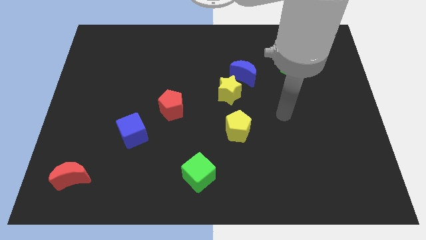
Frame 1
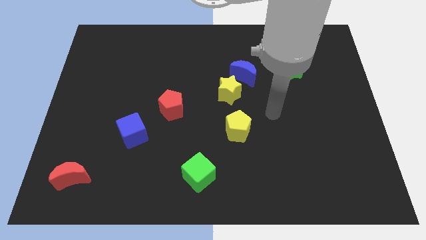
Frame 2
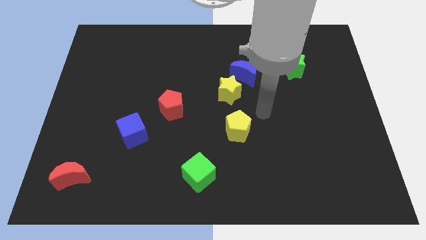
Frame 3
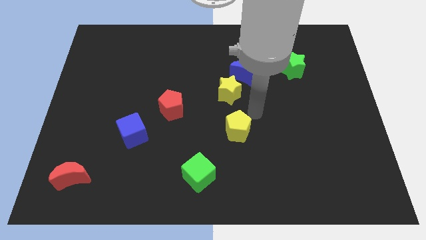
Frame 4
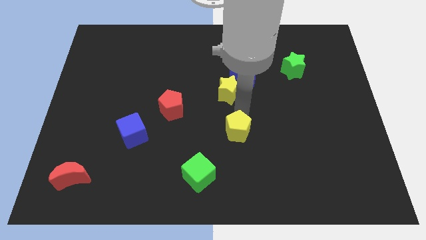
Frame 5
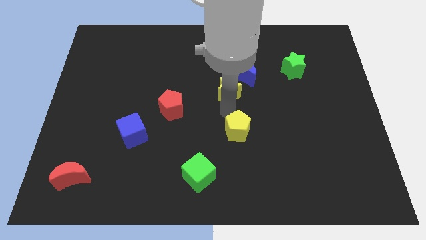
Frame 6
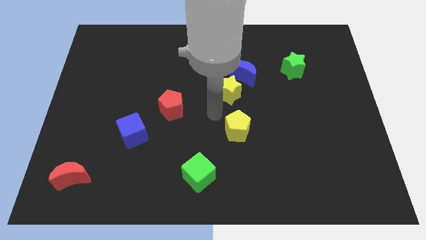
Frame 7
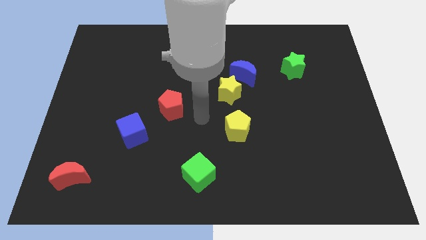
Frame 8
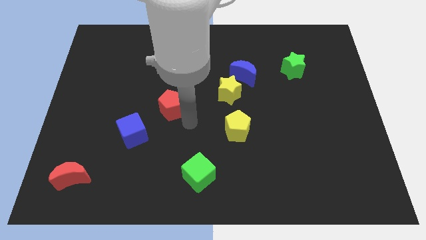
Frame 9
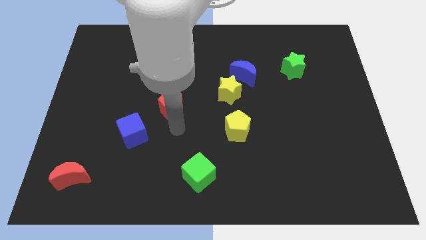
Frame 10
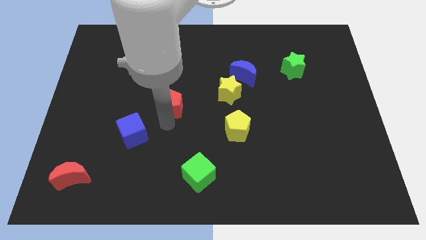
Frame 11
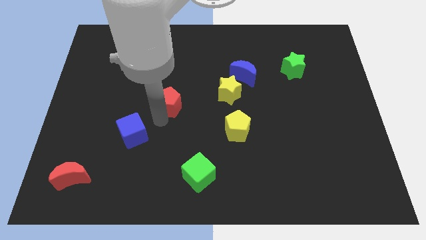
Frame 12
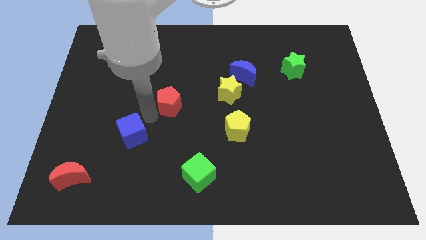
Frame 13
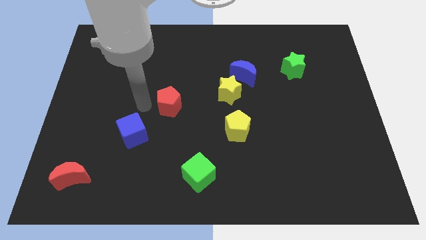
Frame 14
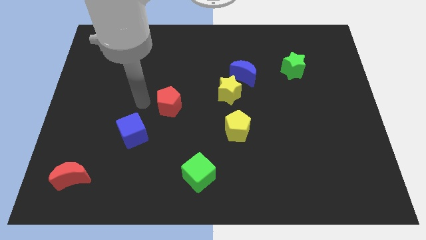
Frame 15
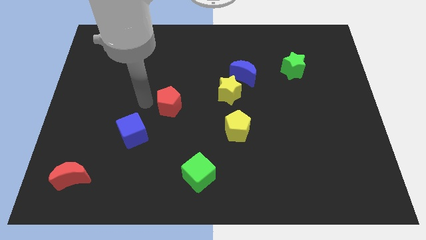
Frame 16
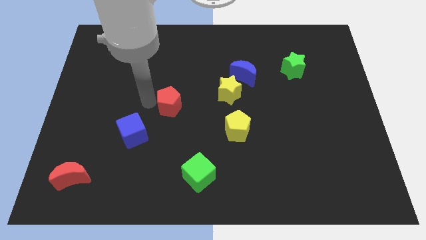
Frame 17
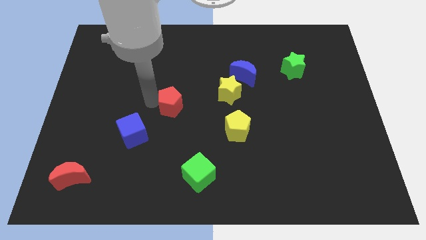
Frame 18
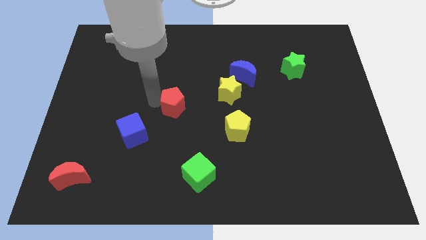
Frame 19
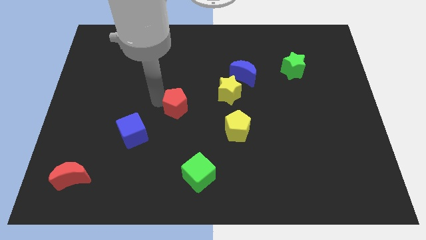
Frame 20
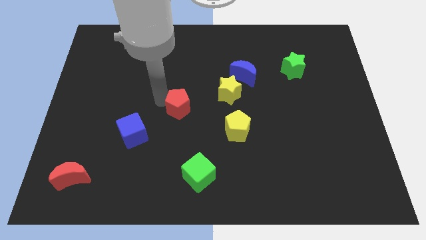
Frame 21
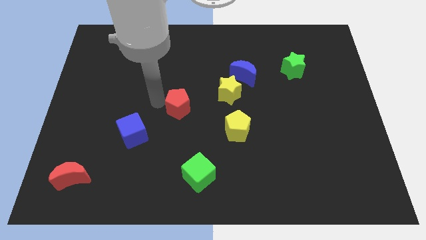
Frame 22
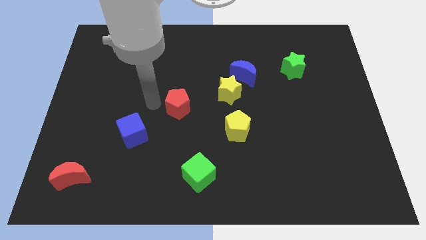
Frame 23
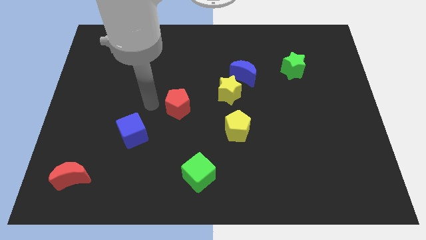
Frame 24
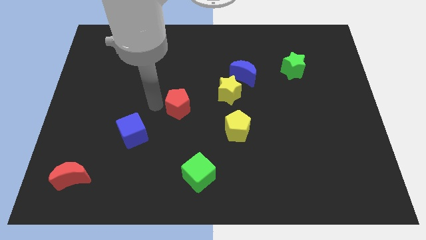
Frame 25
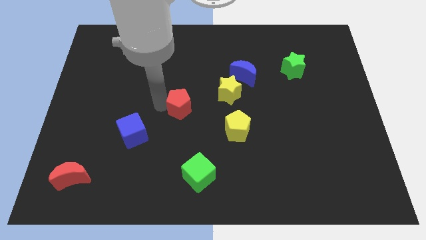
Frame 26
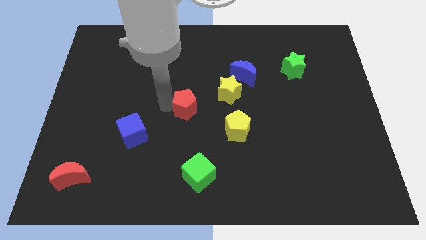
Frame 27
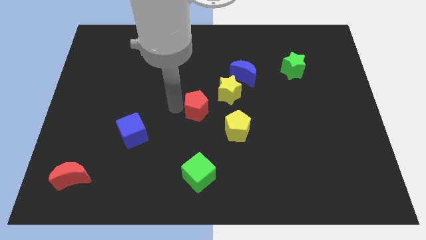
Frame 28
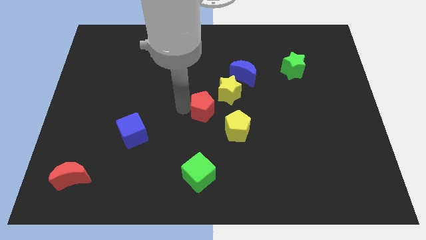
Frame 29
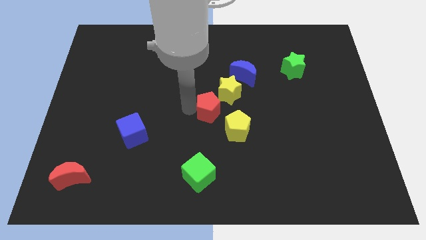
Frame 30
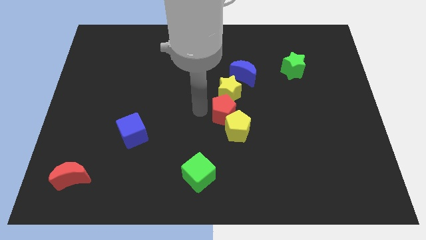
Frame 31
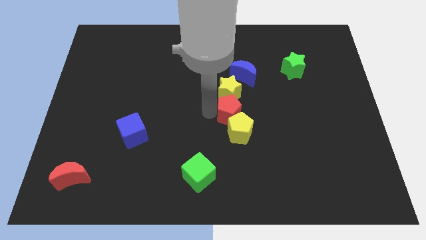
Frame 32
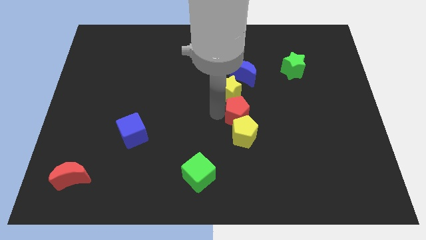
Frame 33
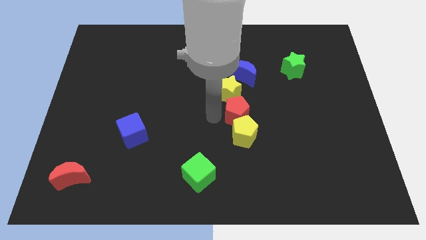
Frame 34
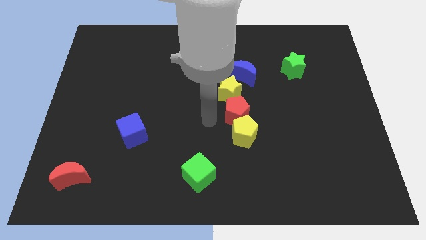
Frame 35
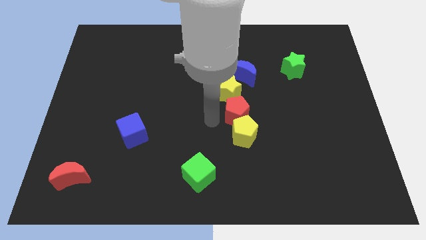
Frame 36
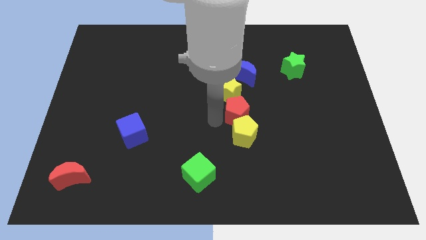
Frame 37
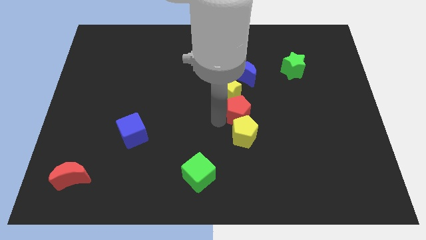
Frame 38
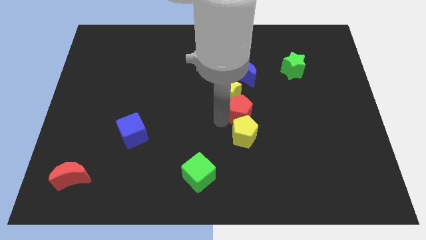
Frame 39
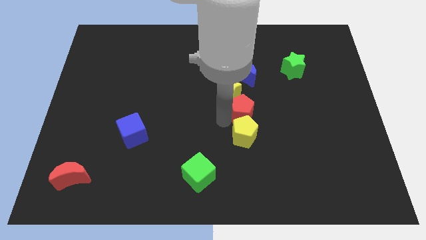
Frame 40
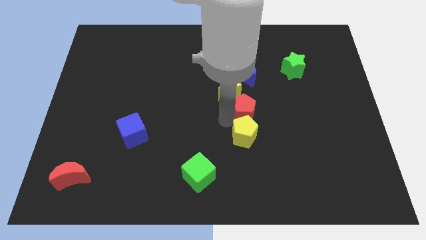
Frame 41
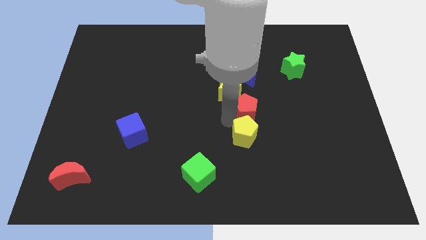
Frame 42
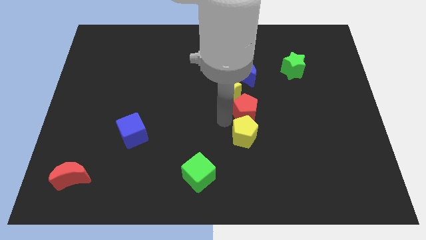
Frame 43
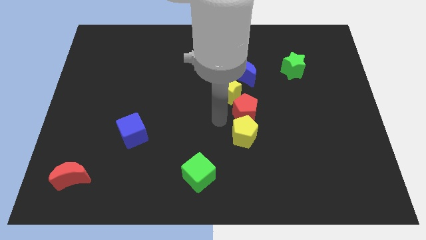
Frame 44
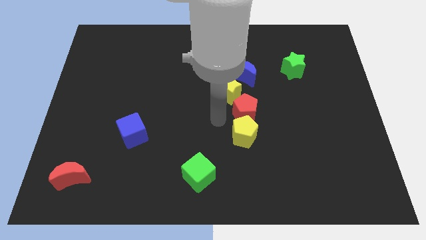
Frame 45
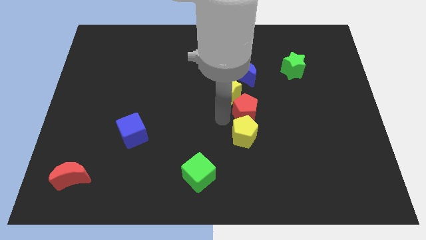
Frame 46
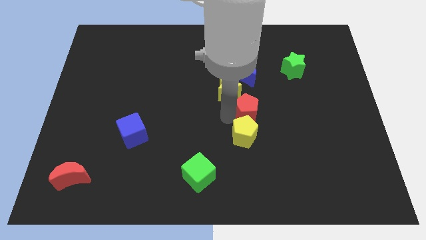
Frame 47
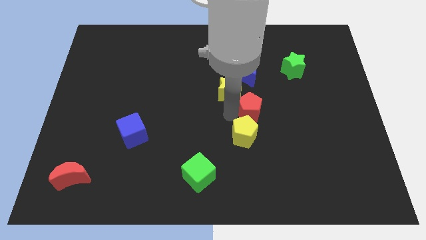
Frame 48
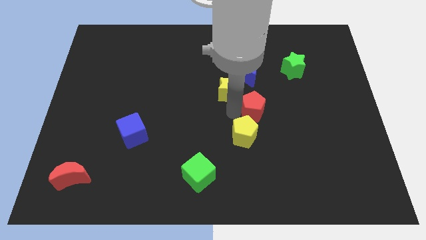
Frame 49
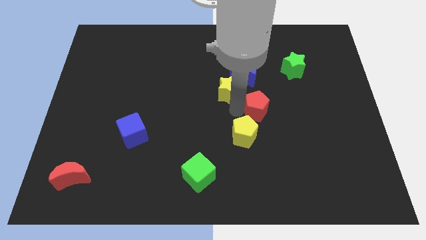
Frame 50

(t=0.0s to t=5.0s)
move the red pentagon right

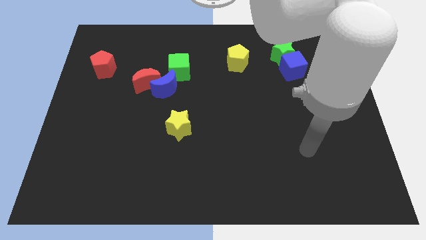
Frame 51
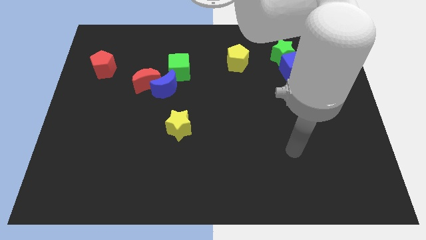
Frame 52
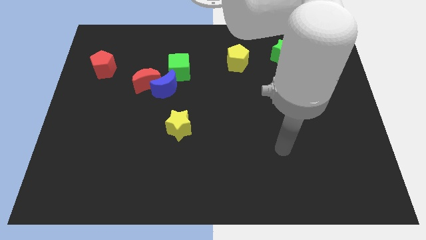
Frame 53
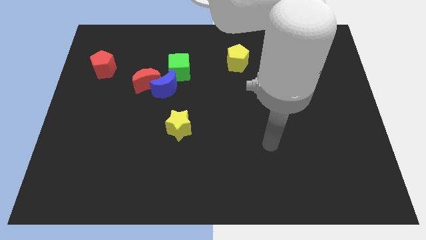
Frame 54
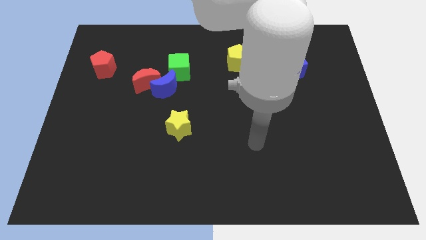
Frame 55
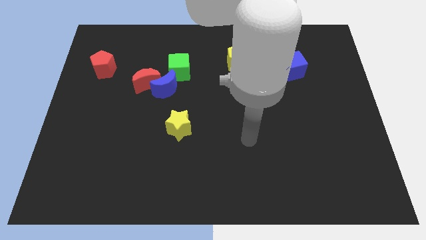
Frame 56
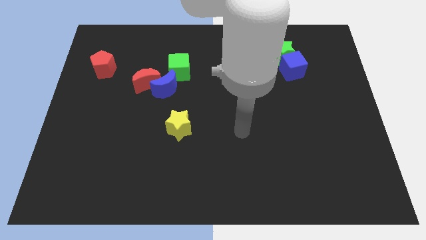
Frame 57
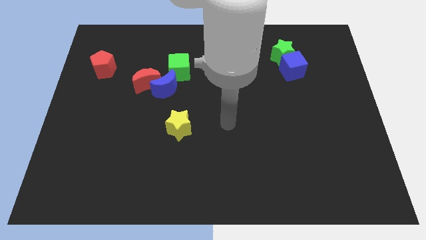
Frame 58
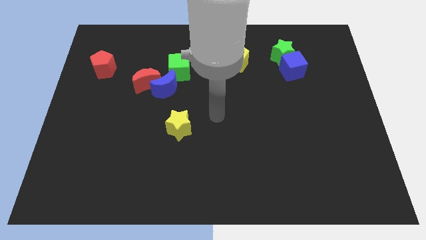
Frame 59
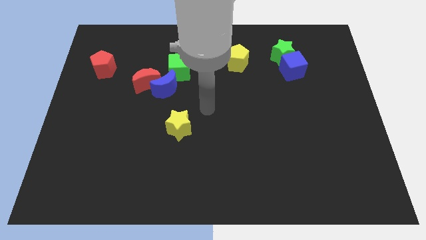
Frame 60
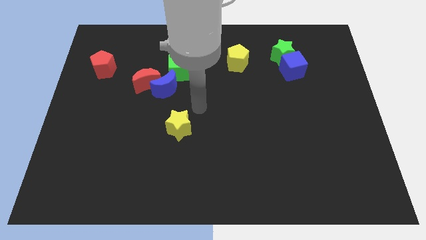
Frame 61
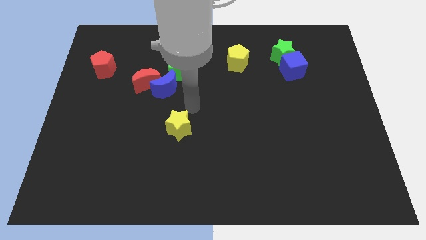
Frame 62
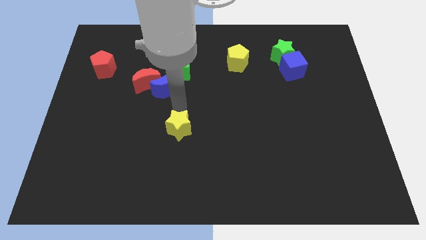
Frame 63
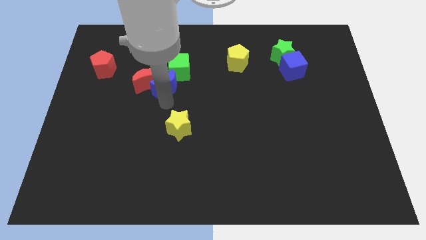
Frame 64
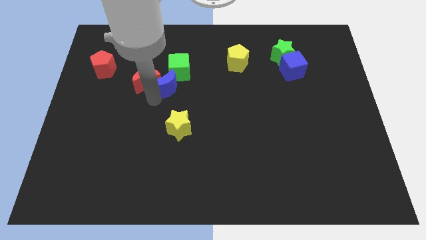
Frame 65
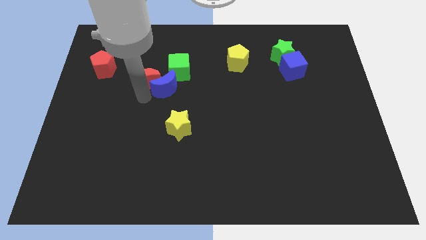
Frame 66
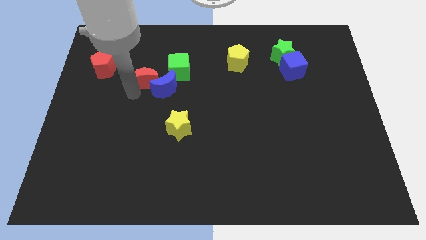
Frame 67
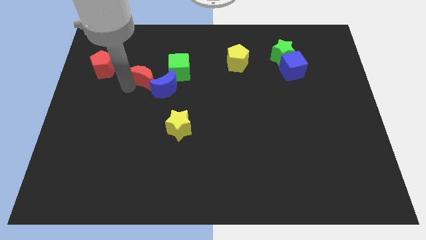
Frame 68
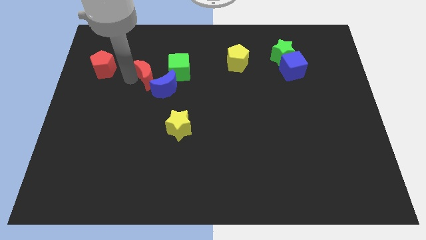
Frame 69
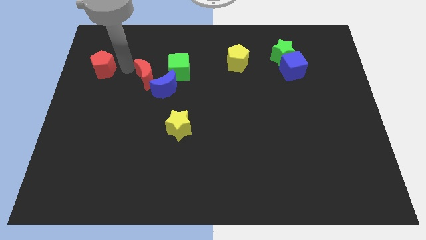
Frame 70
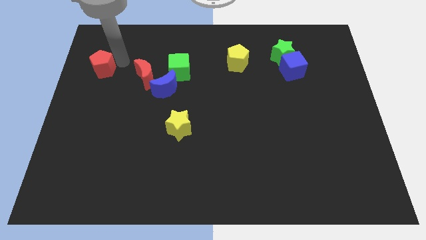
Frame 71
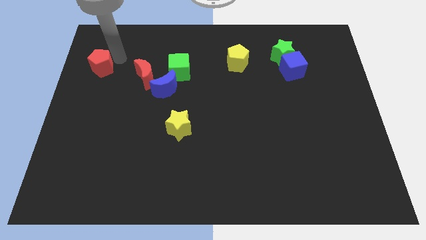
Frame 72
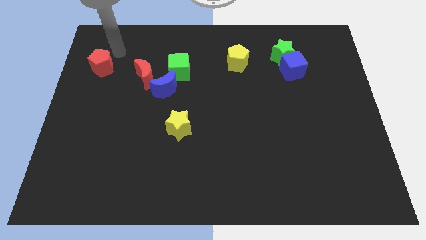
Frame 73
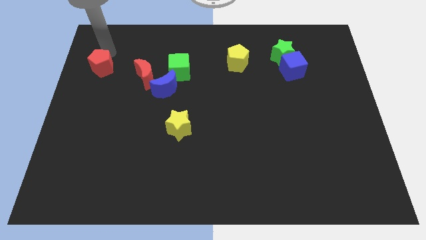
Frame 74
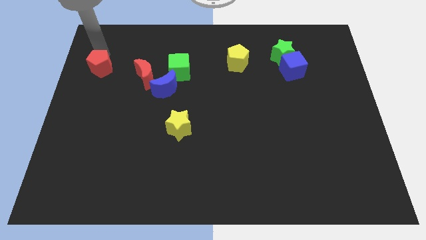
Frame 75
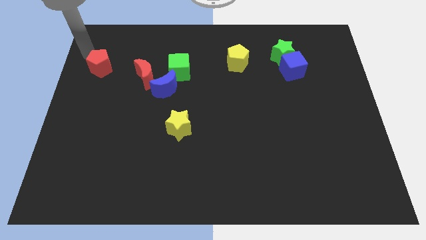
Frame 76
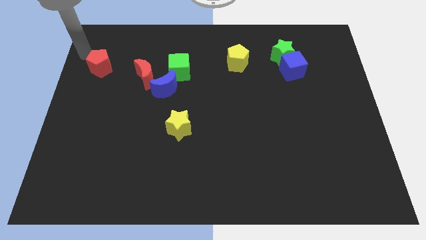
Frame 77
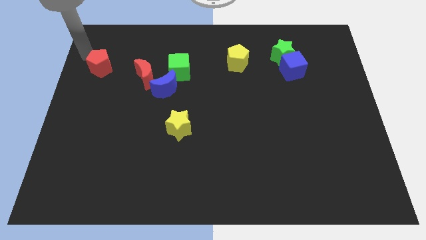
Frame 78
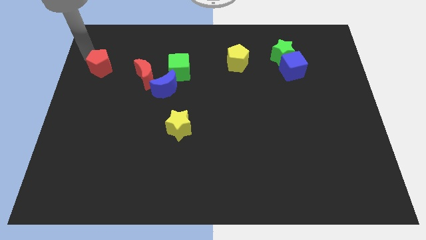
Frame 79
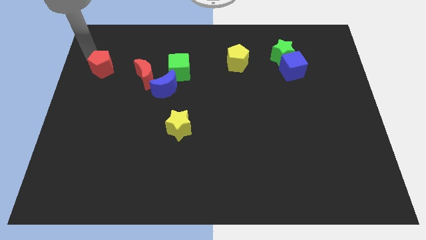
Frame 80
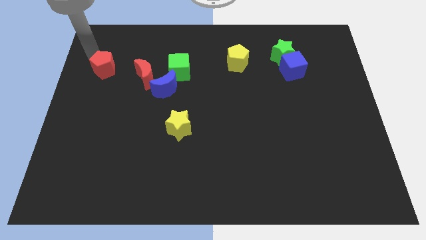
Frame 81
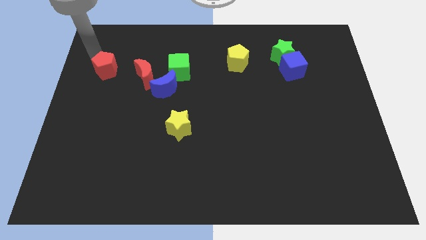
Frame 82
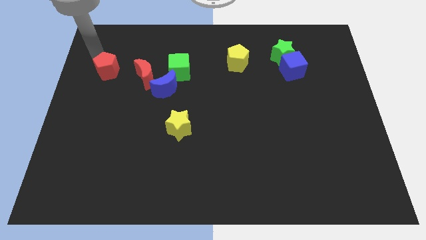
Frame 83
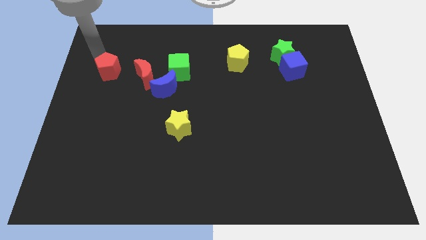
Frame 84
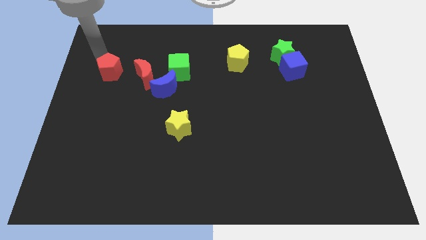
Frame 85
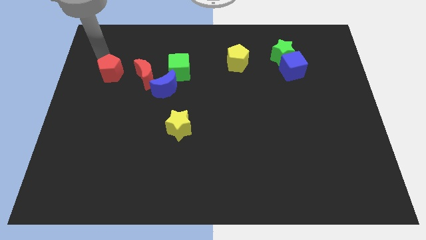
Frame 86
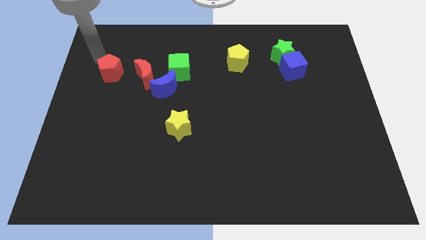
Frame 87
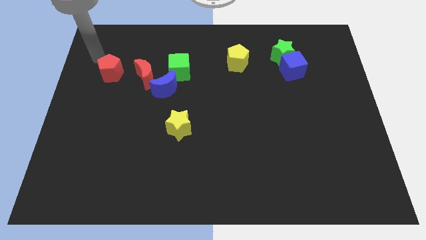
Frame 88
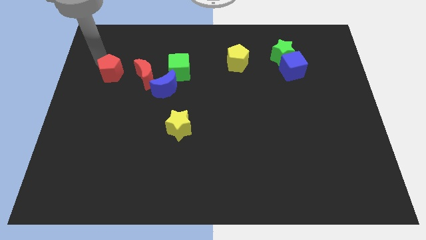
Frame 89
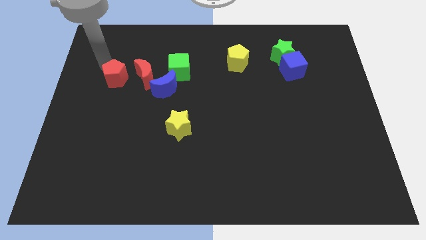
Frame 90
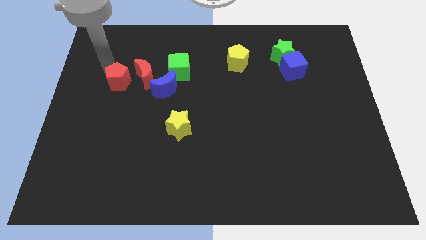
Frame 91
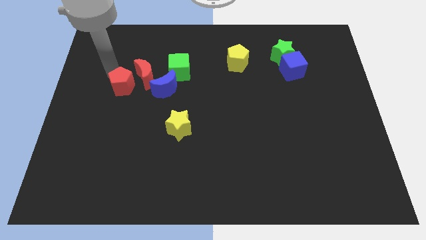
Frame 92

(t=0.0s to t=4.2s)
slightly push the red pentagon diagonally down and to the right
